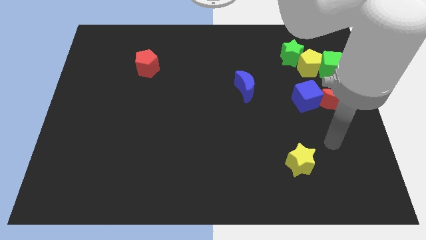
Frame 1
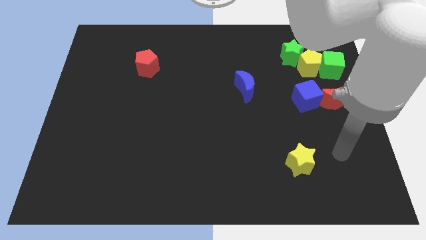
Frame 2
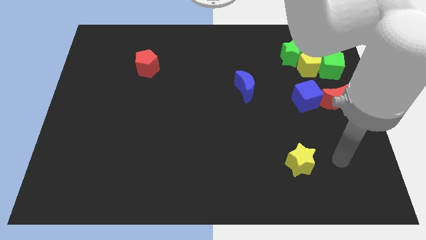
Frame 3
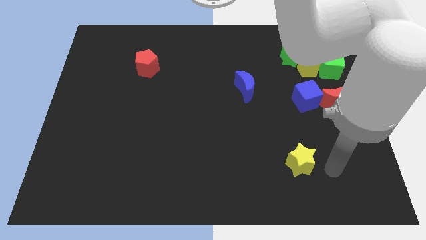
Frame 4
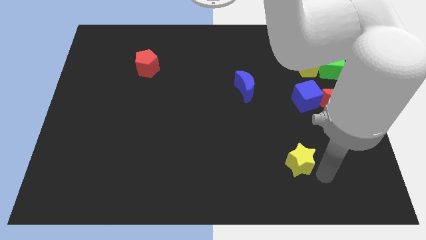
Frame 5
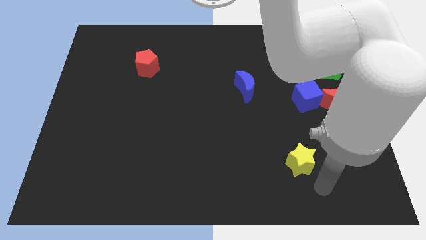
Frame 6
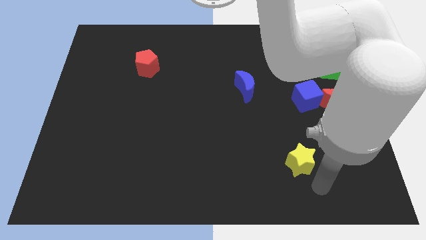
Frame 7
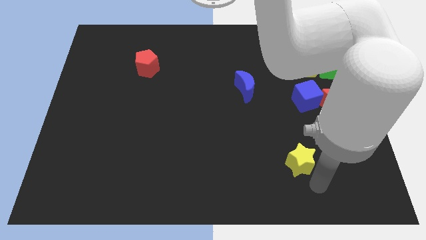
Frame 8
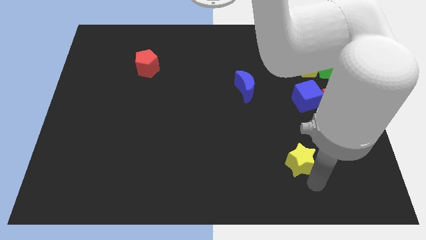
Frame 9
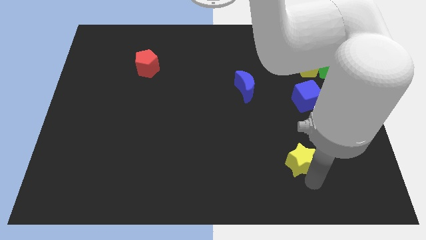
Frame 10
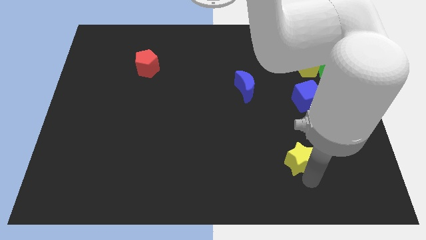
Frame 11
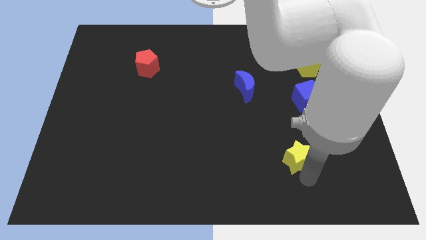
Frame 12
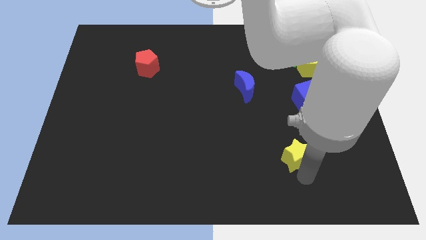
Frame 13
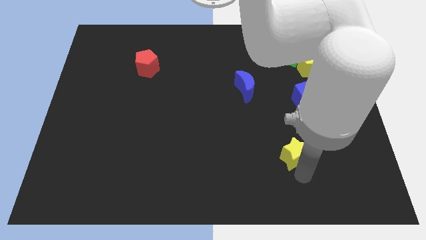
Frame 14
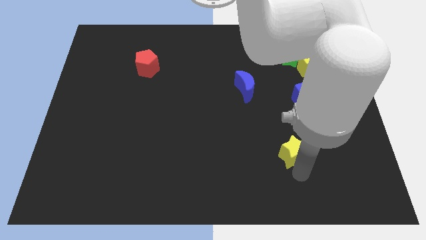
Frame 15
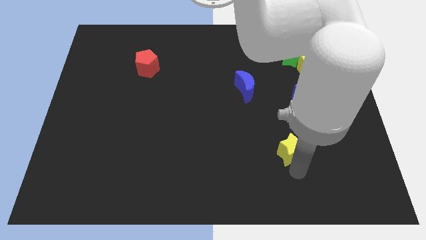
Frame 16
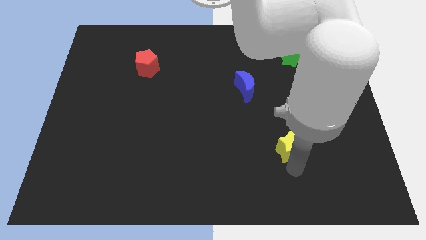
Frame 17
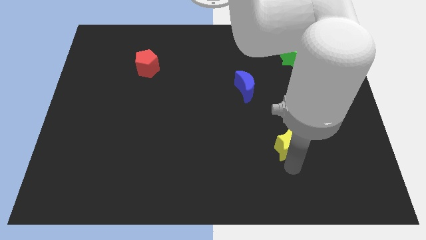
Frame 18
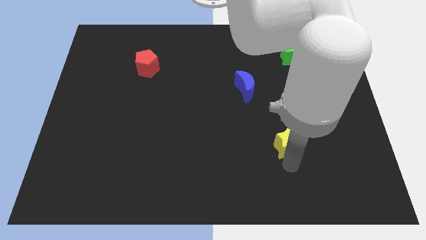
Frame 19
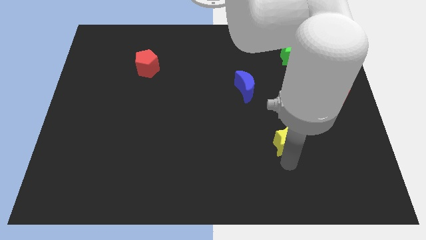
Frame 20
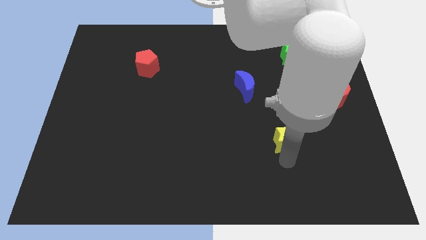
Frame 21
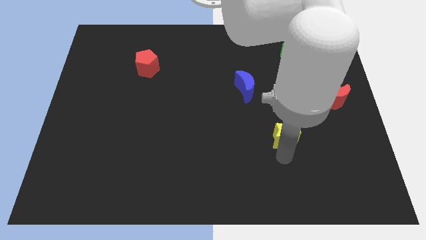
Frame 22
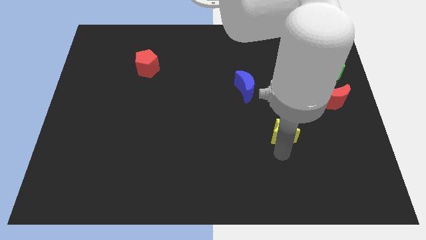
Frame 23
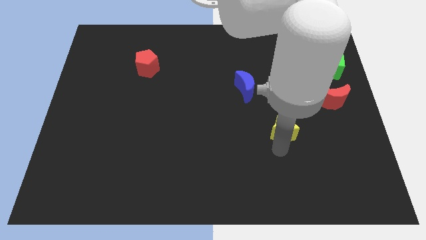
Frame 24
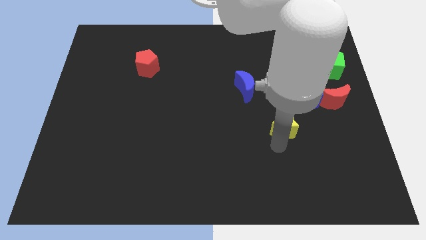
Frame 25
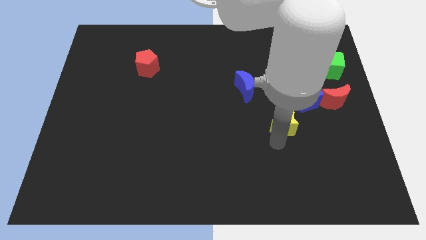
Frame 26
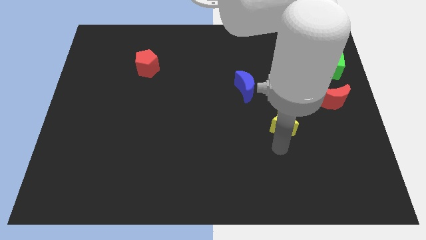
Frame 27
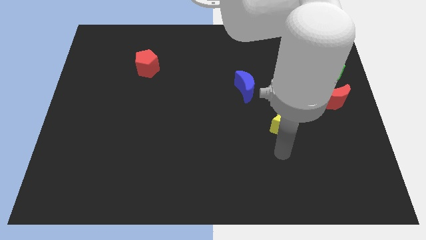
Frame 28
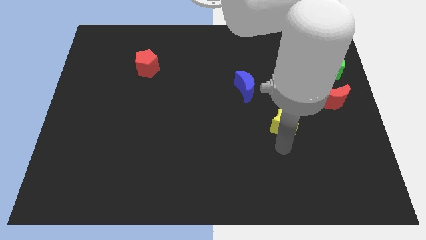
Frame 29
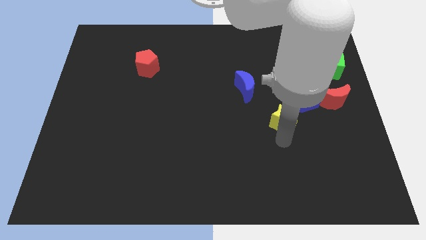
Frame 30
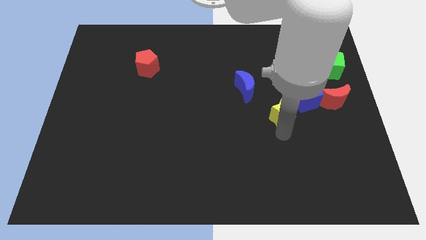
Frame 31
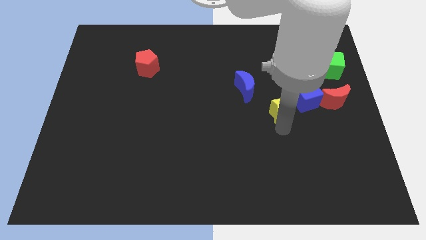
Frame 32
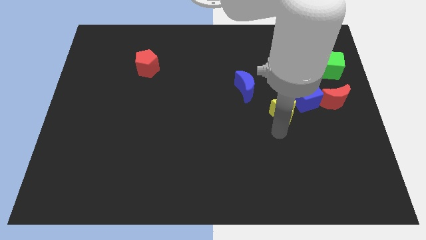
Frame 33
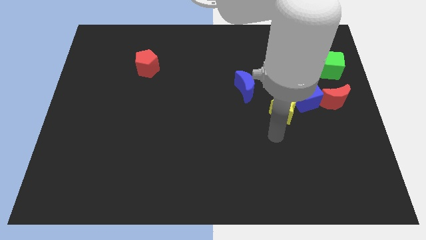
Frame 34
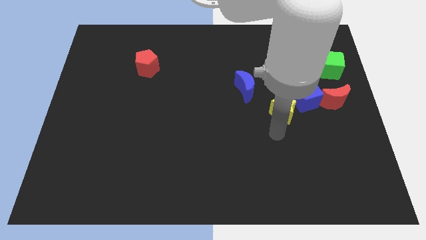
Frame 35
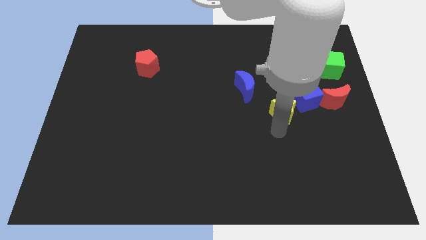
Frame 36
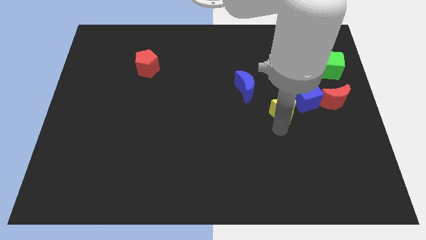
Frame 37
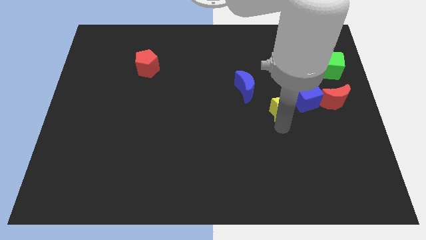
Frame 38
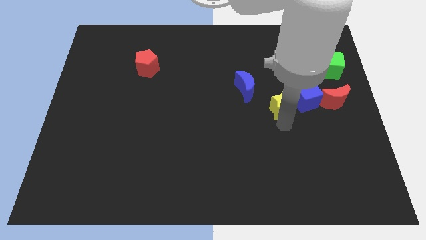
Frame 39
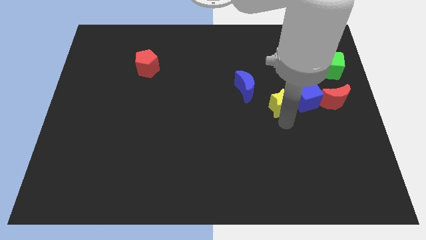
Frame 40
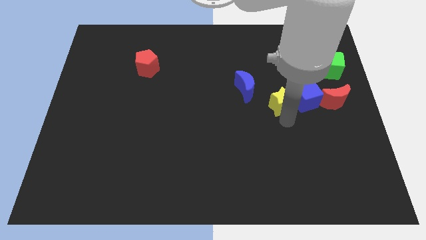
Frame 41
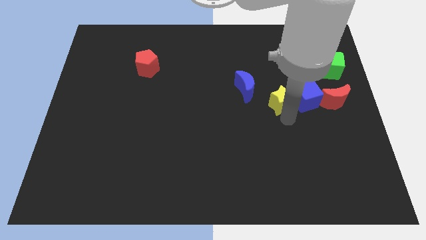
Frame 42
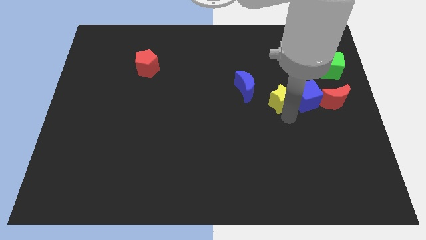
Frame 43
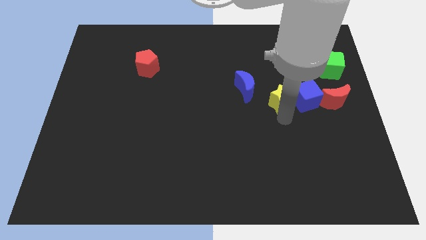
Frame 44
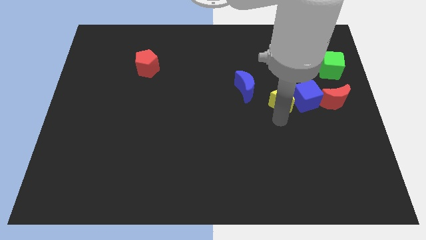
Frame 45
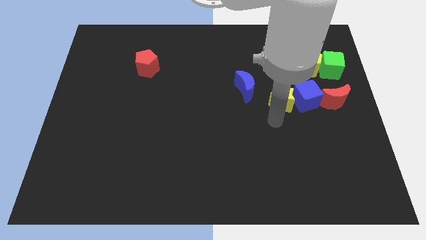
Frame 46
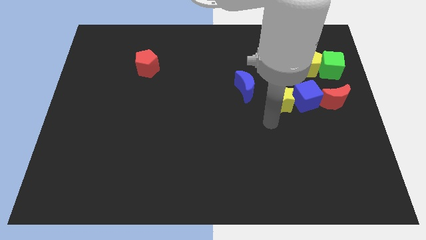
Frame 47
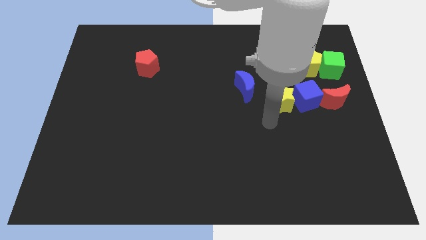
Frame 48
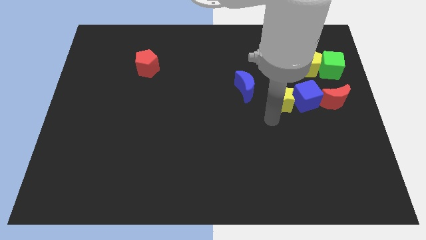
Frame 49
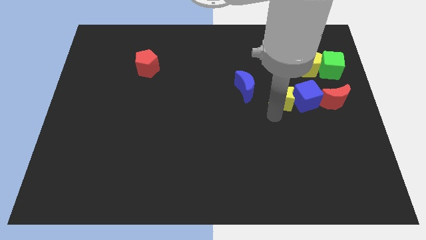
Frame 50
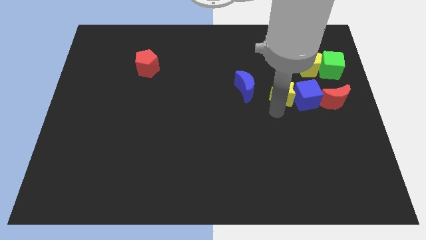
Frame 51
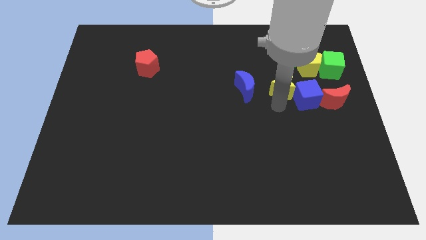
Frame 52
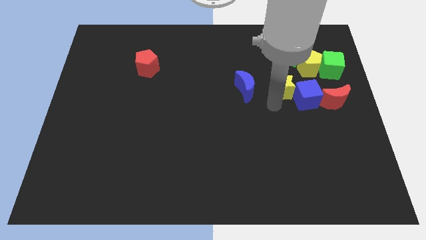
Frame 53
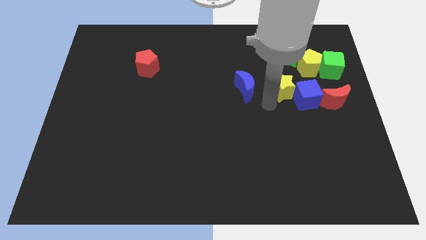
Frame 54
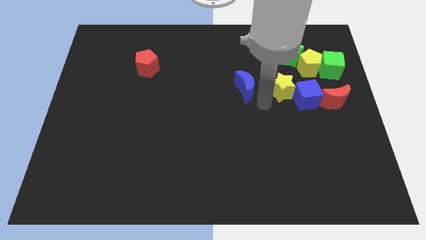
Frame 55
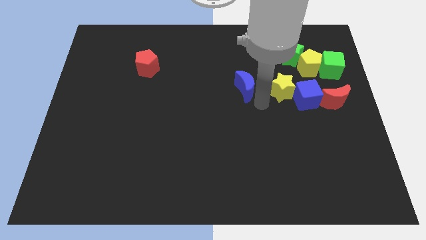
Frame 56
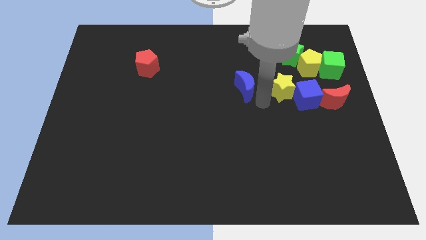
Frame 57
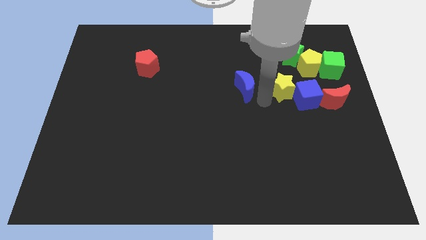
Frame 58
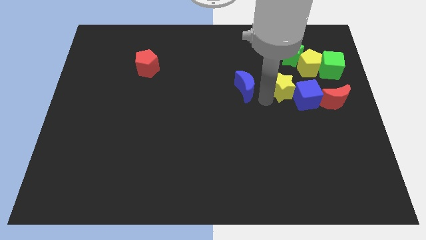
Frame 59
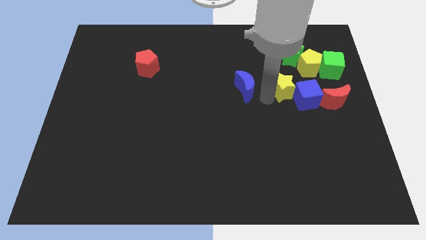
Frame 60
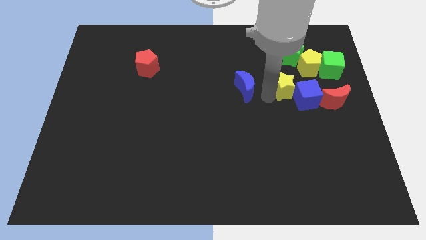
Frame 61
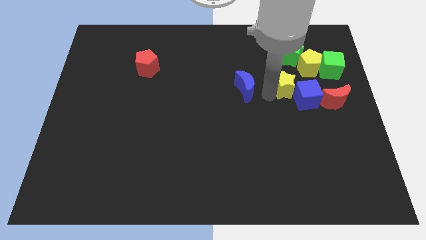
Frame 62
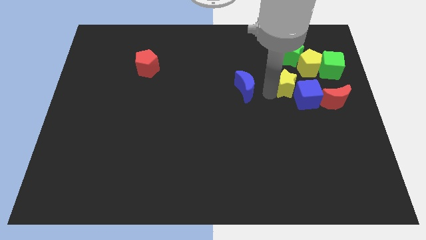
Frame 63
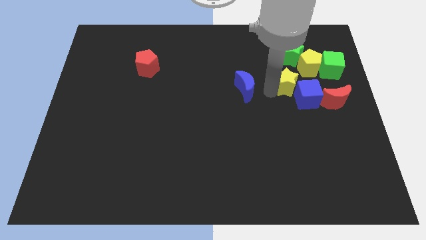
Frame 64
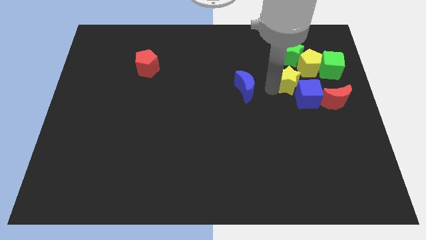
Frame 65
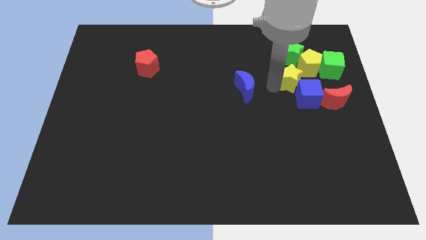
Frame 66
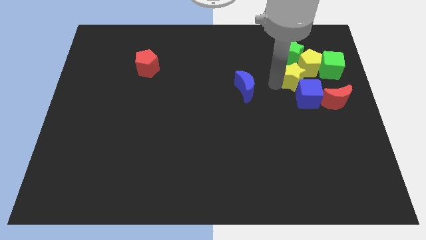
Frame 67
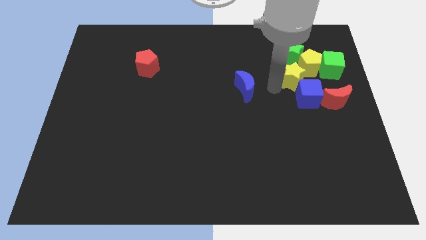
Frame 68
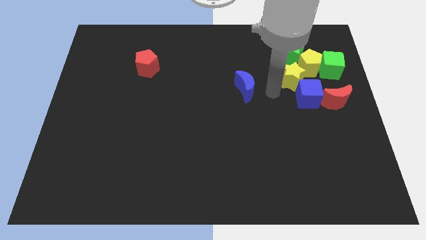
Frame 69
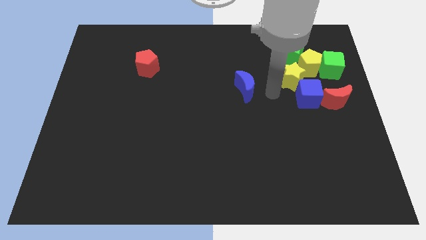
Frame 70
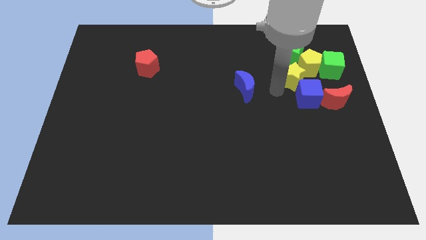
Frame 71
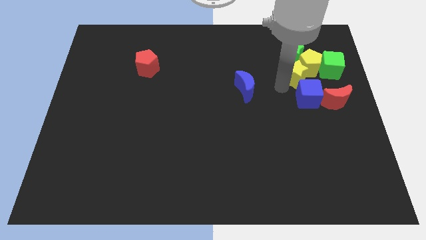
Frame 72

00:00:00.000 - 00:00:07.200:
slide the yellow star towards the yellow pentagon

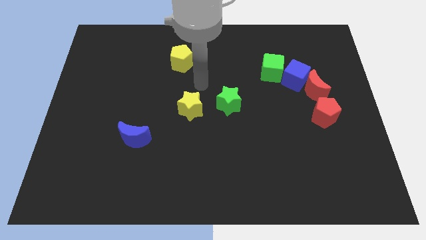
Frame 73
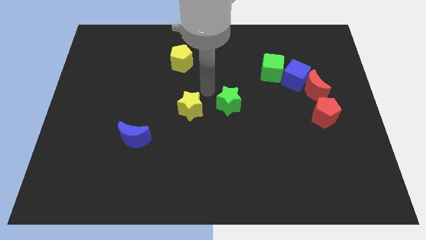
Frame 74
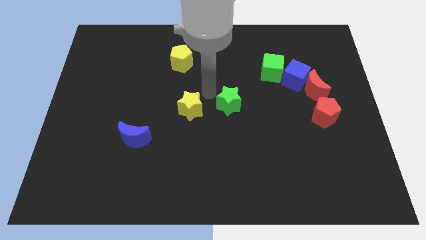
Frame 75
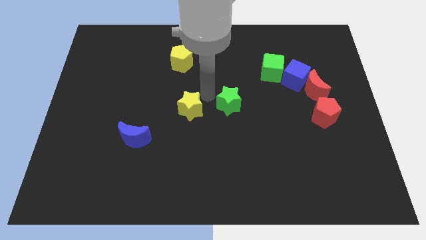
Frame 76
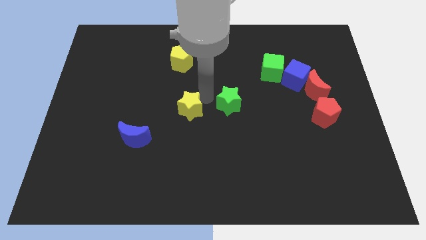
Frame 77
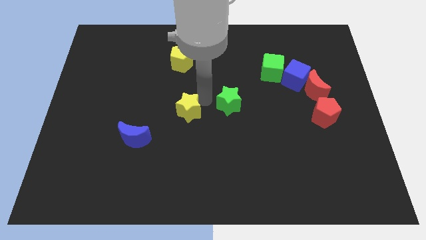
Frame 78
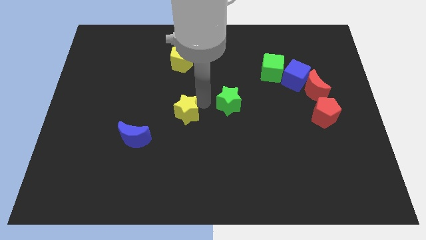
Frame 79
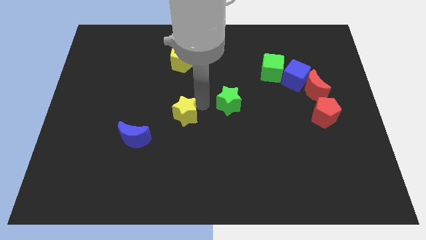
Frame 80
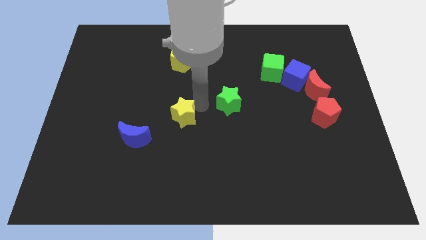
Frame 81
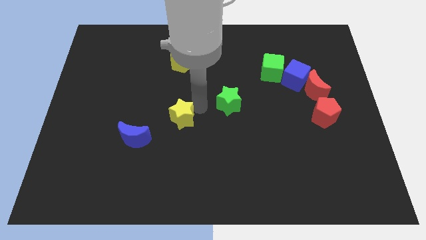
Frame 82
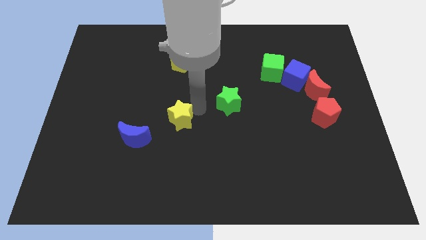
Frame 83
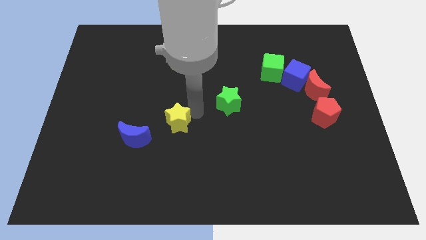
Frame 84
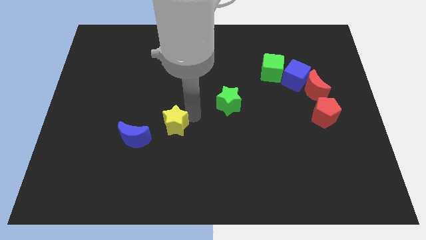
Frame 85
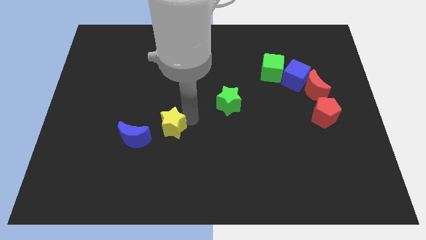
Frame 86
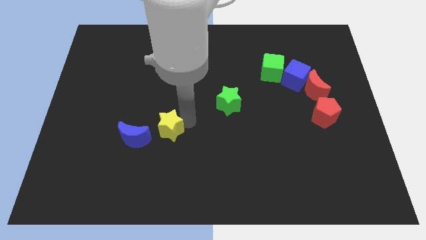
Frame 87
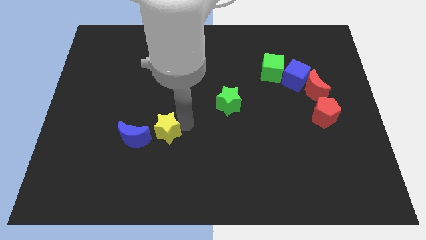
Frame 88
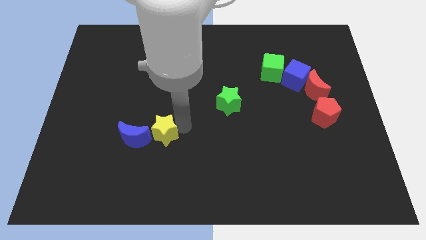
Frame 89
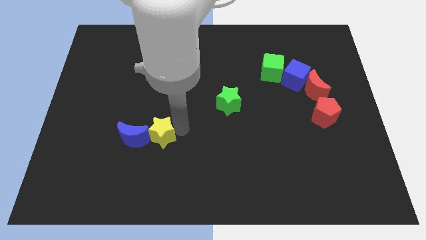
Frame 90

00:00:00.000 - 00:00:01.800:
put the yellow star next to the blue moon
